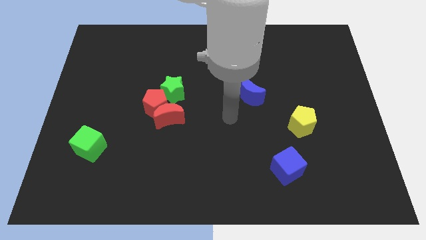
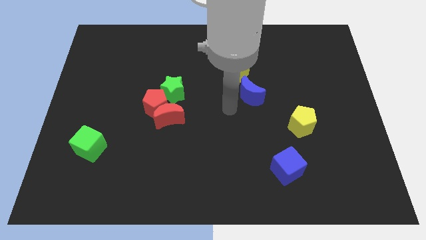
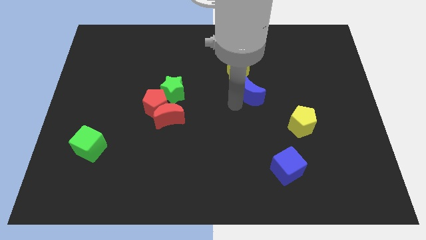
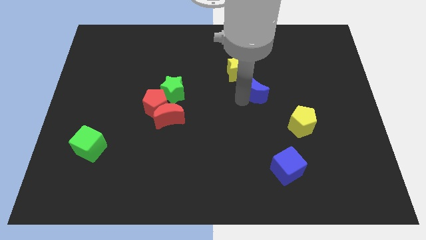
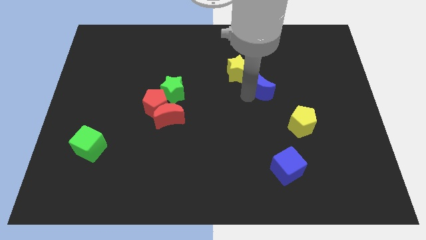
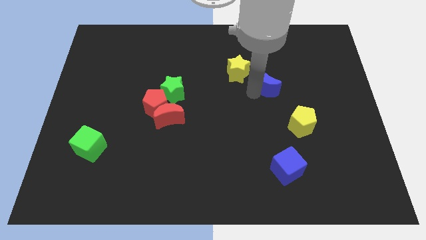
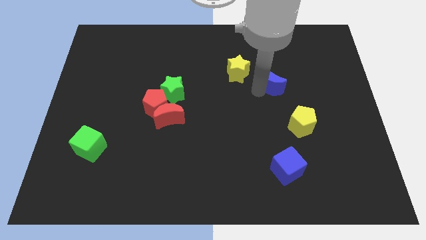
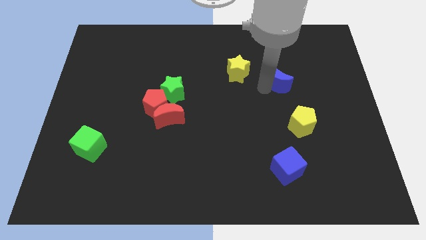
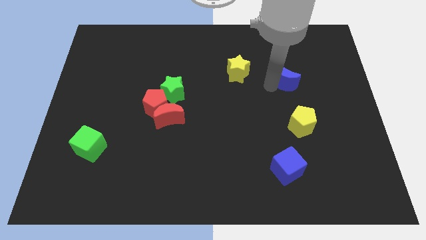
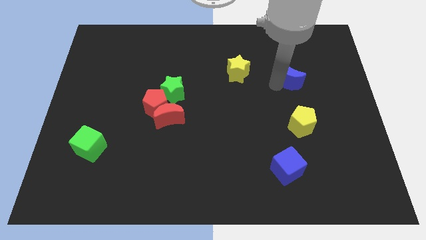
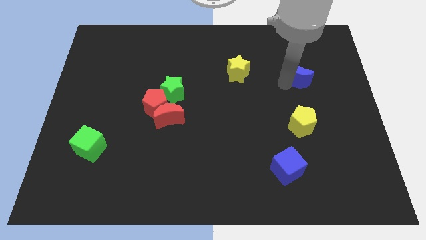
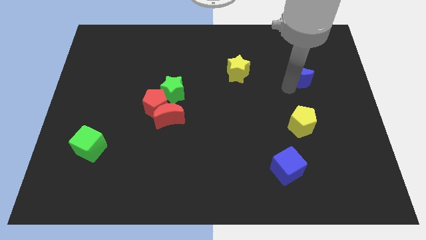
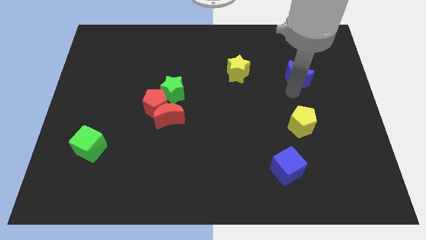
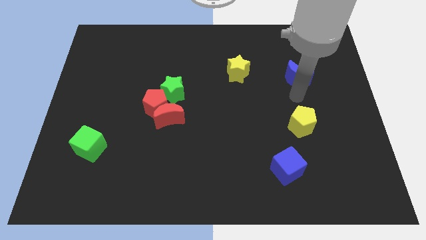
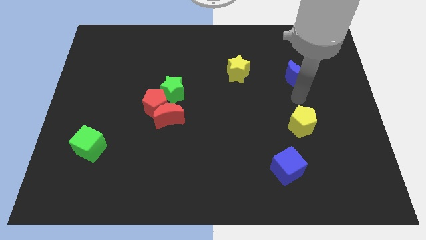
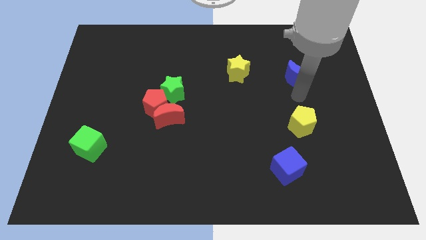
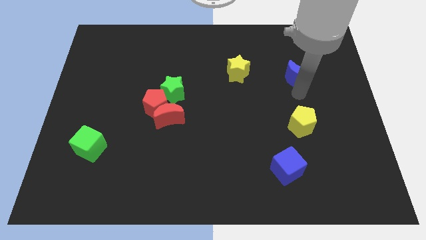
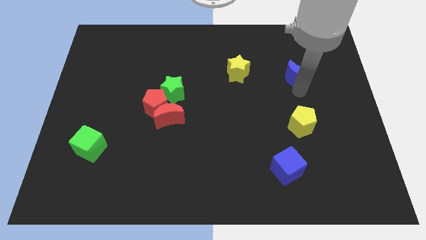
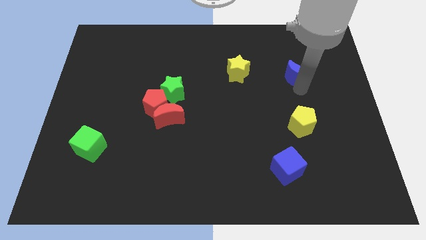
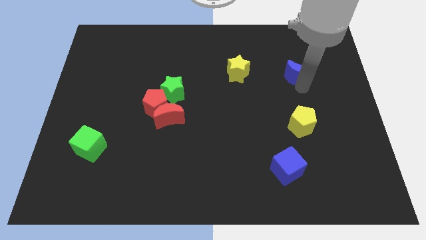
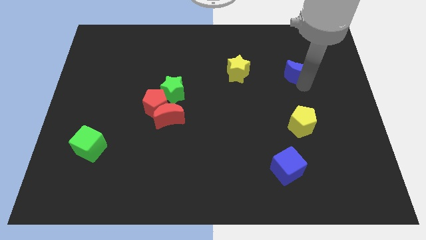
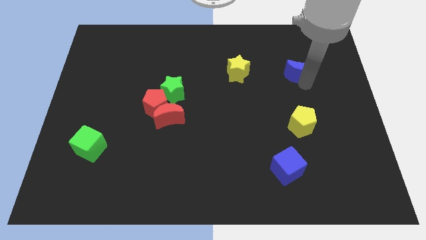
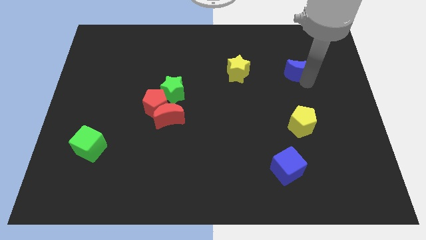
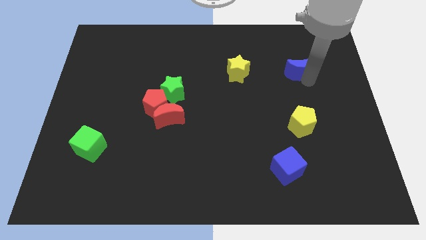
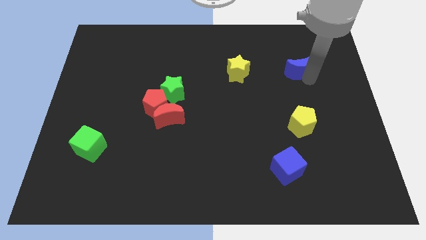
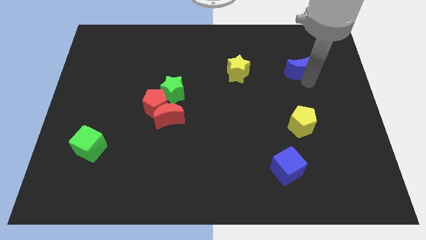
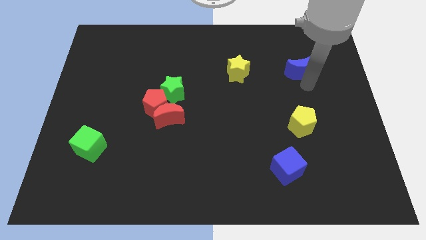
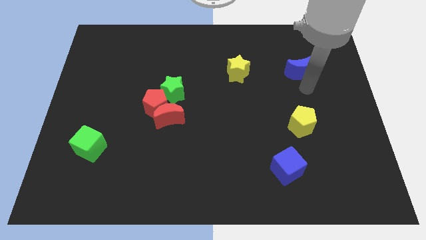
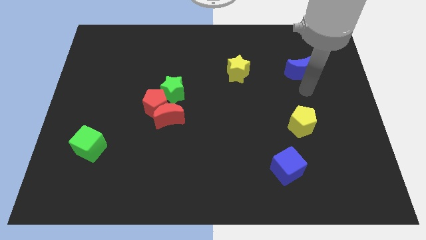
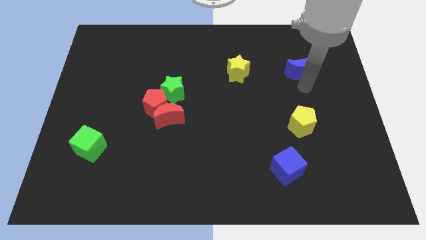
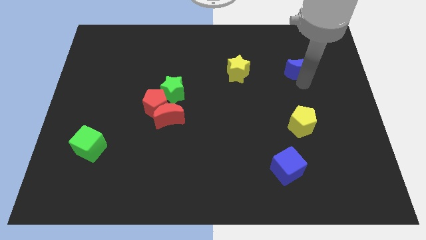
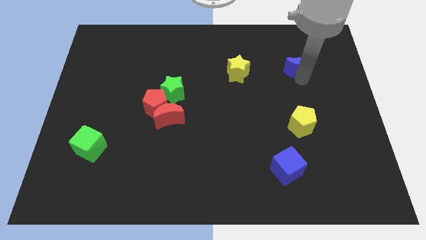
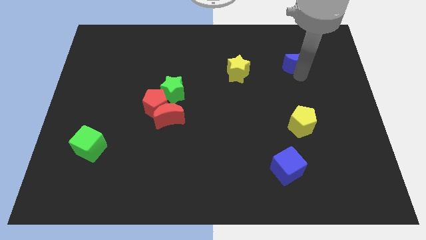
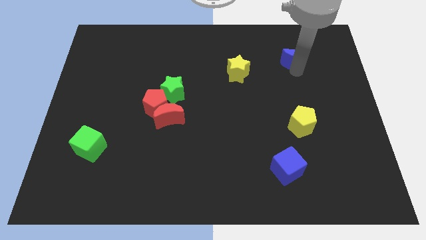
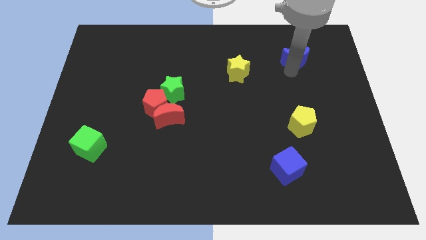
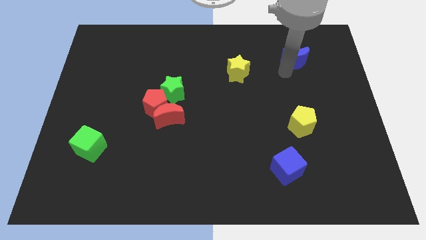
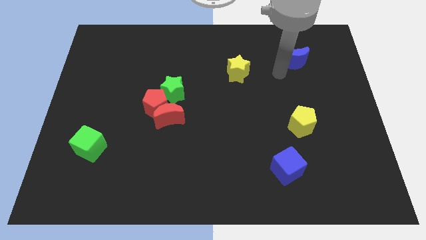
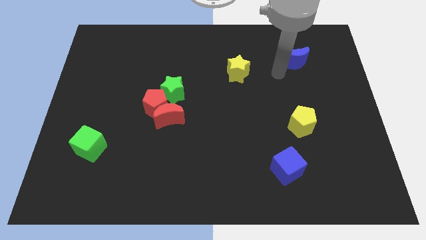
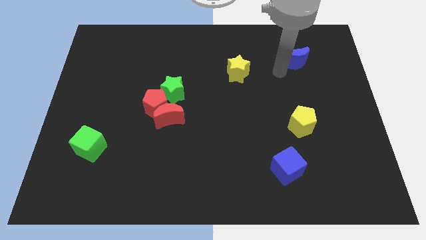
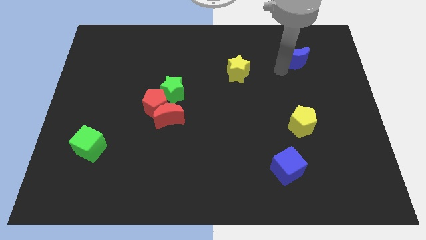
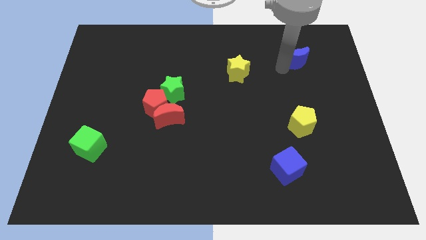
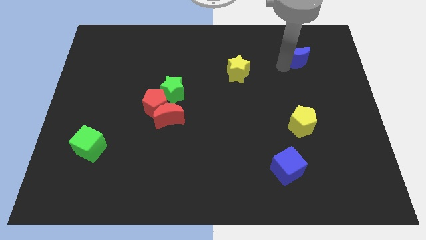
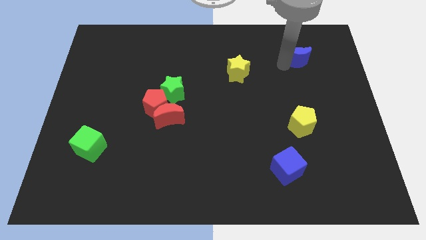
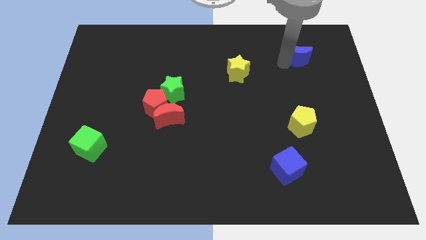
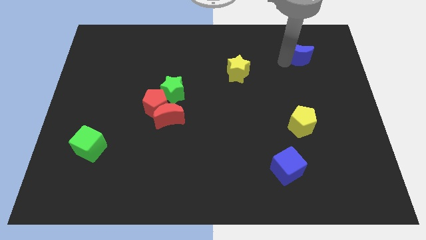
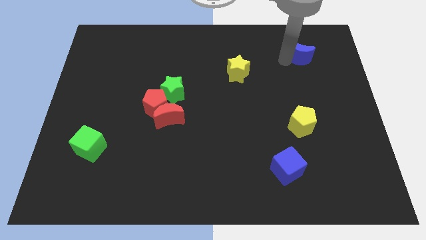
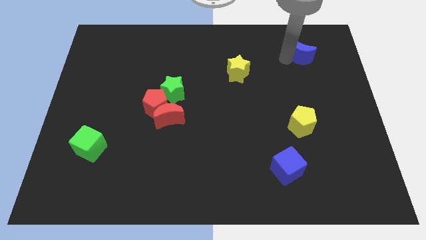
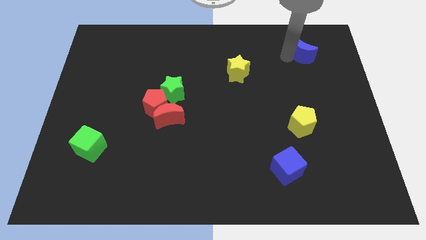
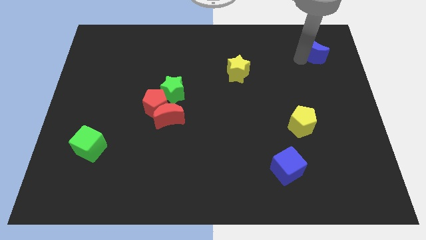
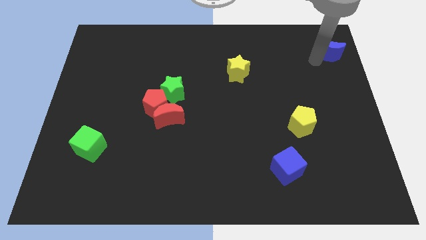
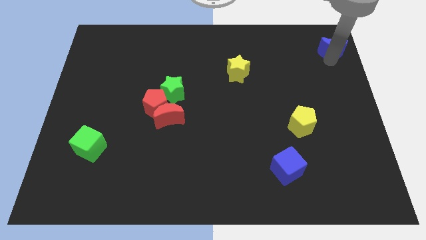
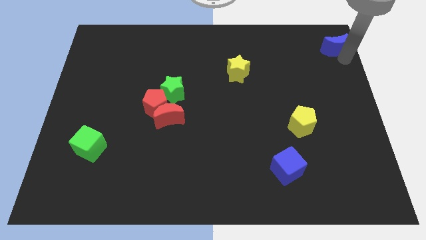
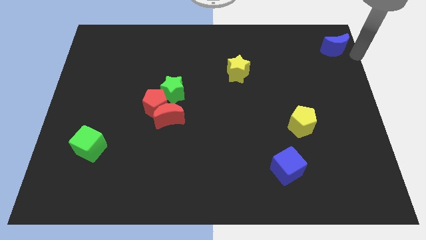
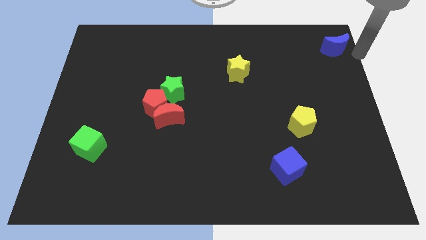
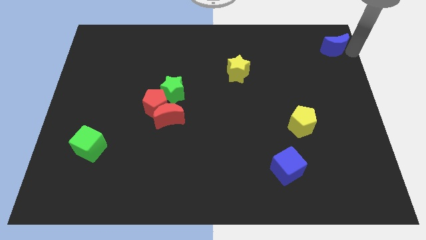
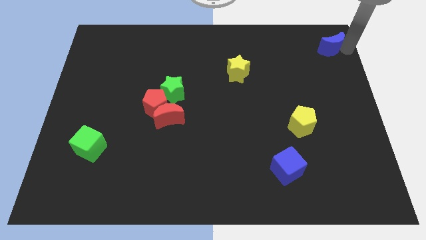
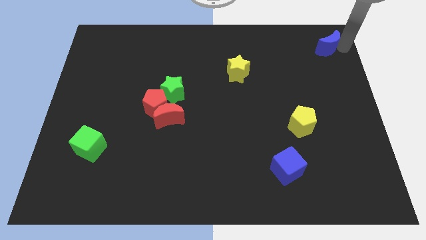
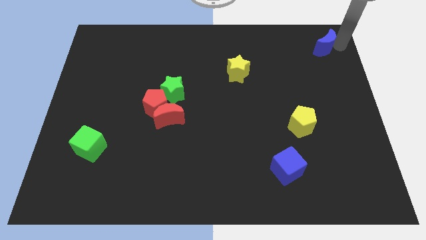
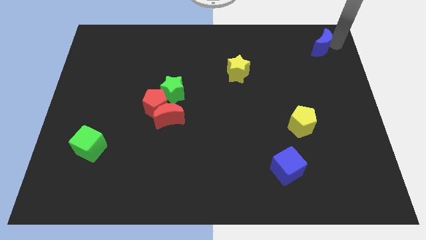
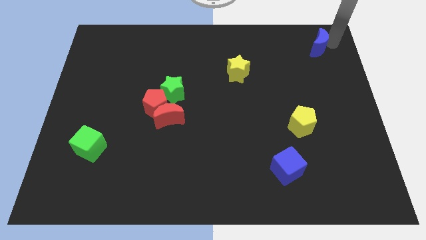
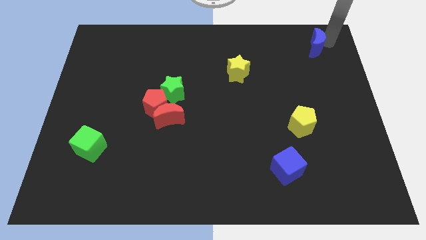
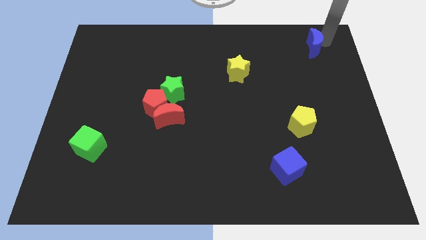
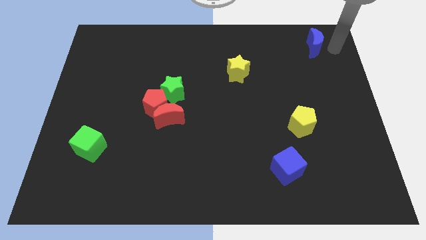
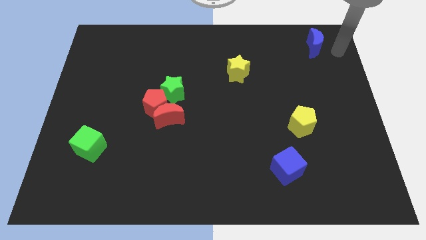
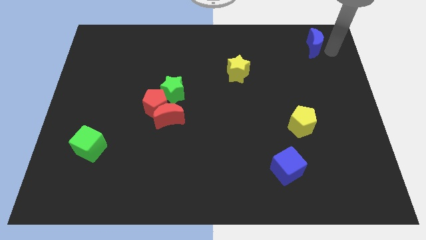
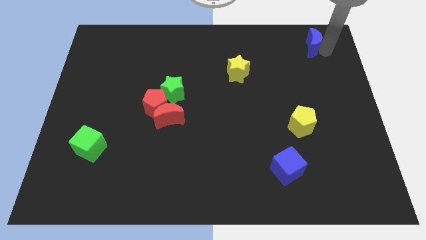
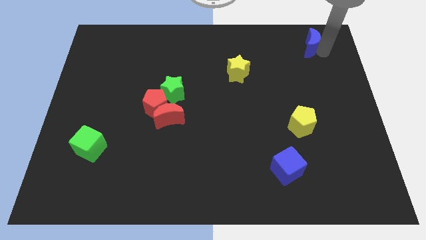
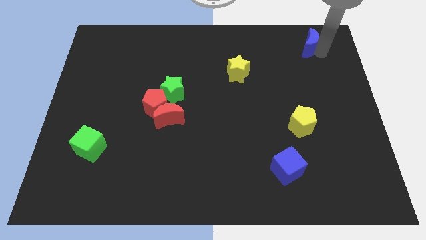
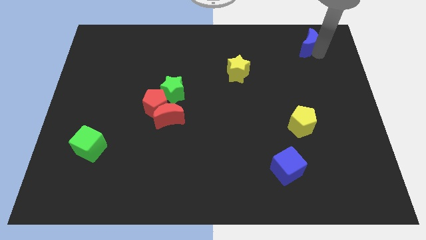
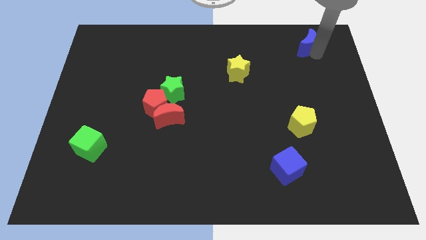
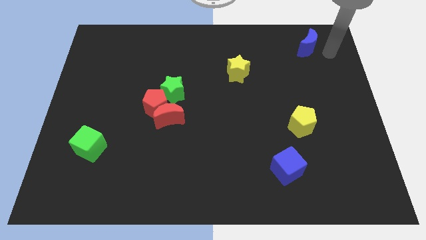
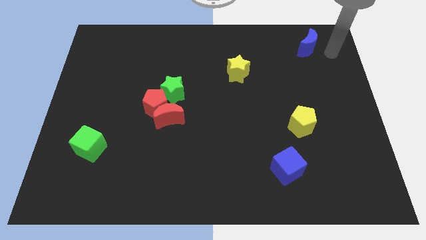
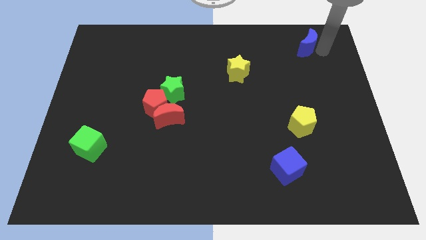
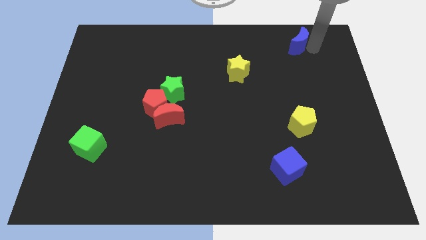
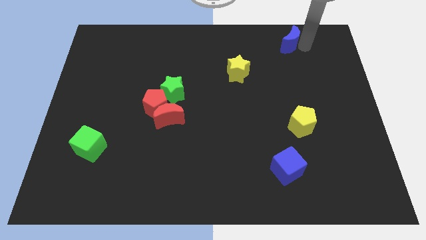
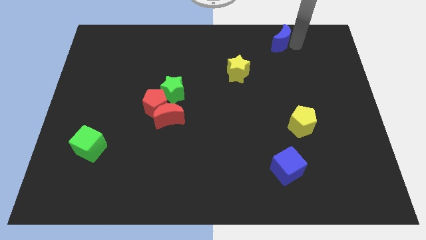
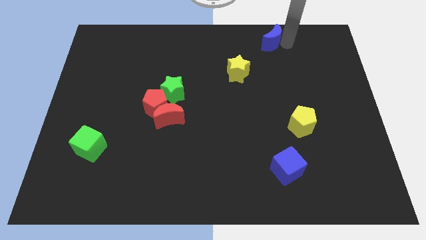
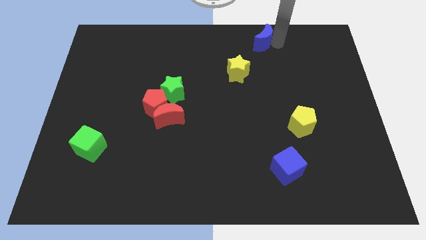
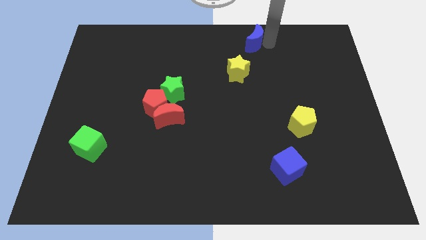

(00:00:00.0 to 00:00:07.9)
slide the blue moon to the towards your base
